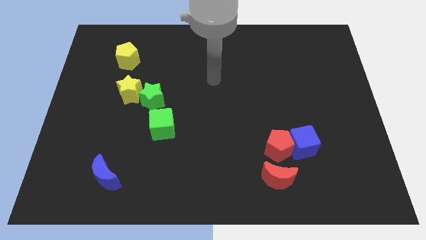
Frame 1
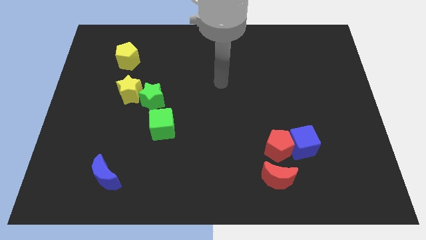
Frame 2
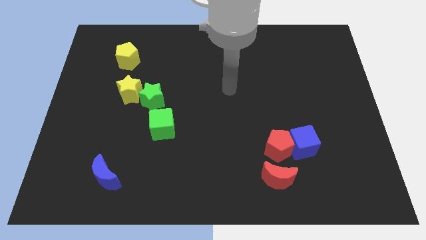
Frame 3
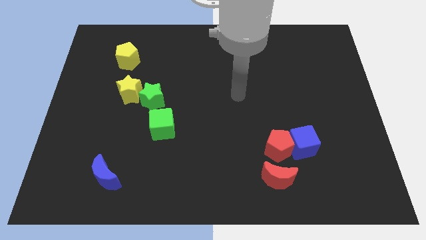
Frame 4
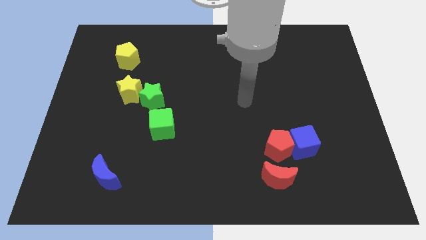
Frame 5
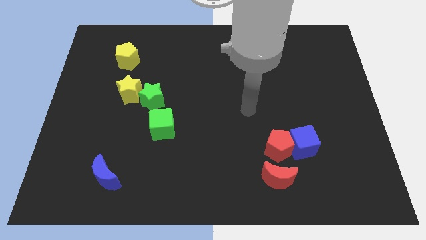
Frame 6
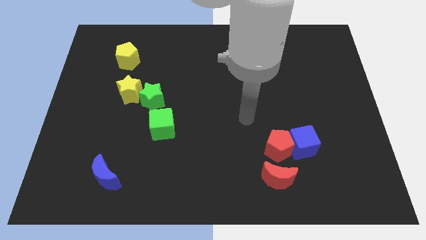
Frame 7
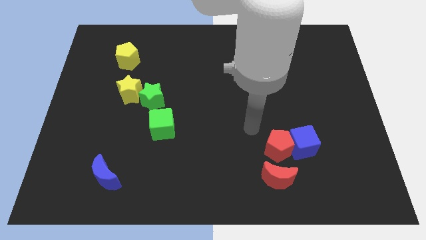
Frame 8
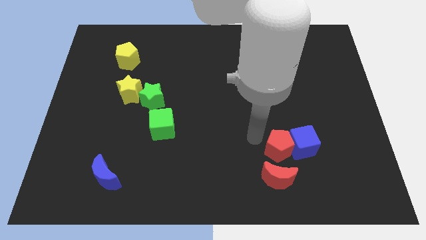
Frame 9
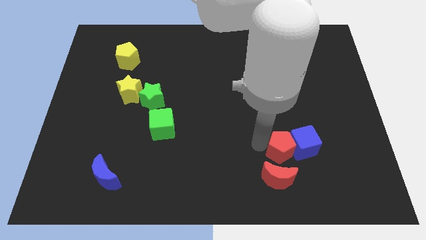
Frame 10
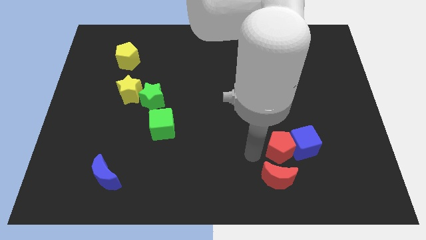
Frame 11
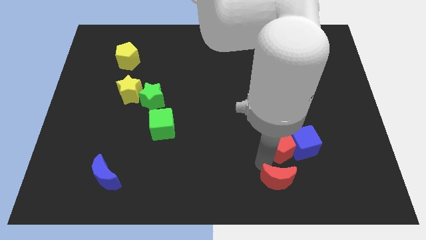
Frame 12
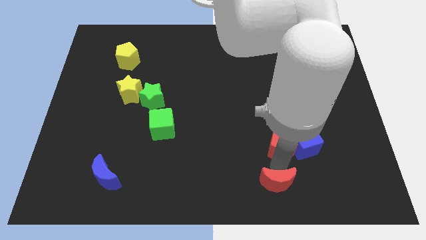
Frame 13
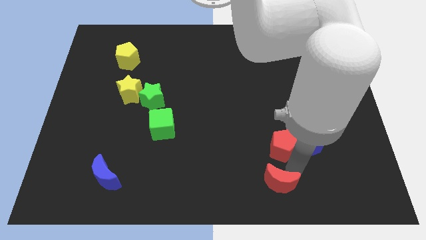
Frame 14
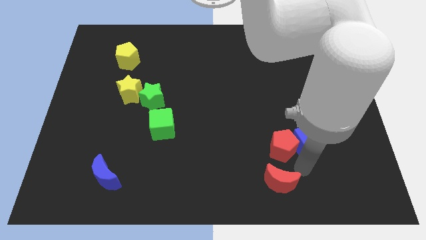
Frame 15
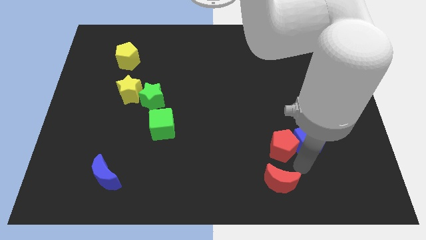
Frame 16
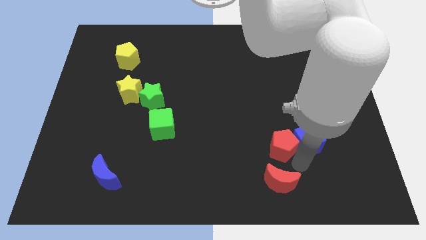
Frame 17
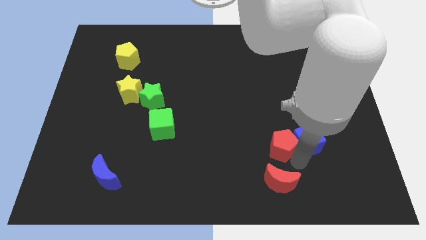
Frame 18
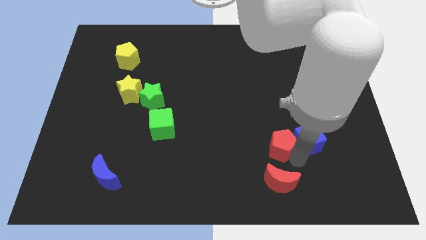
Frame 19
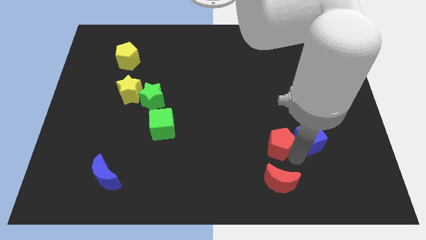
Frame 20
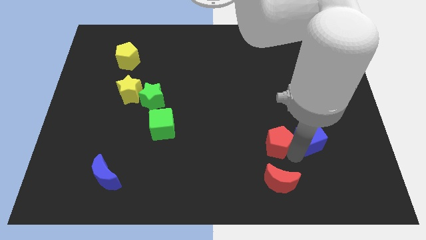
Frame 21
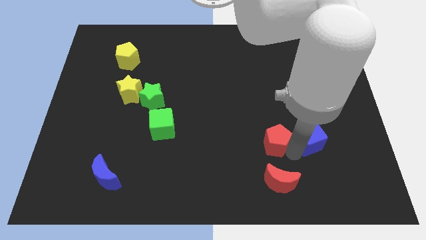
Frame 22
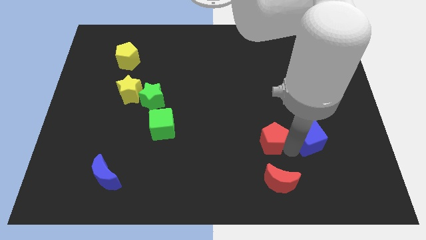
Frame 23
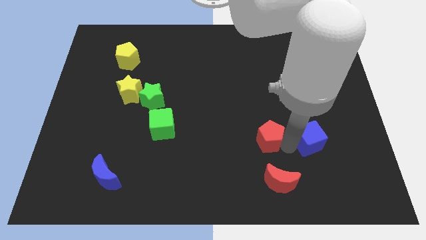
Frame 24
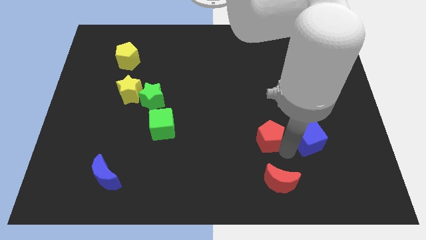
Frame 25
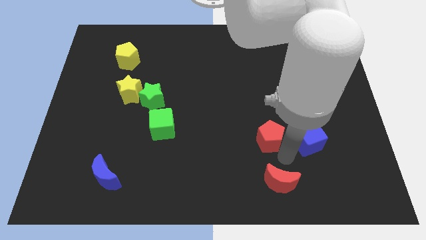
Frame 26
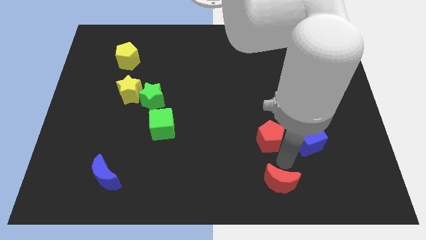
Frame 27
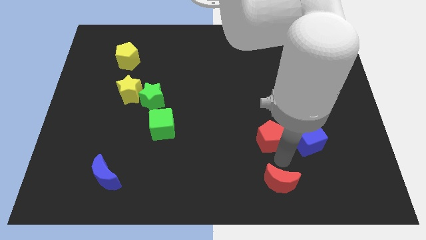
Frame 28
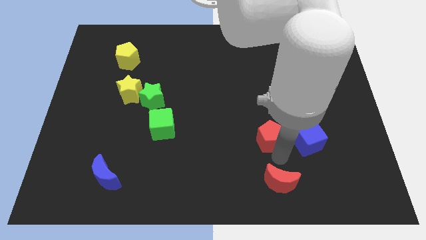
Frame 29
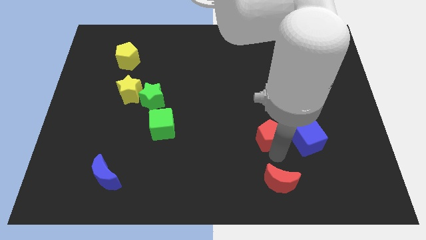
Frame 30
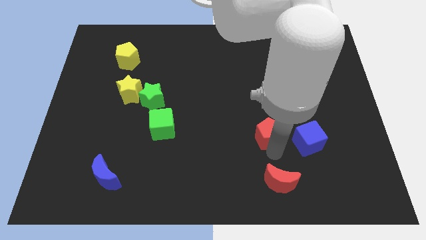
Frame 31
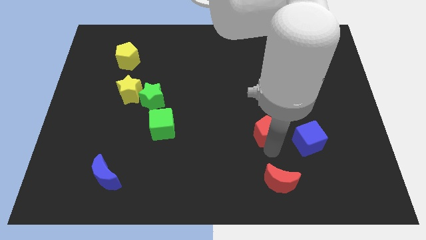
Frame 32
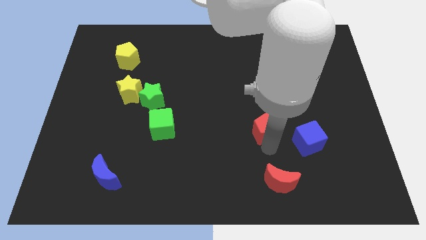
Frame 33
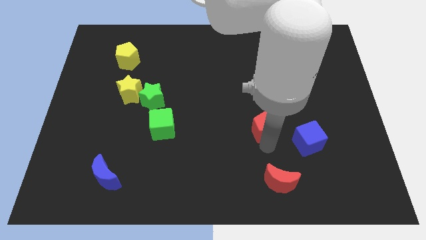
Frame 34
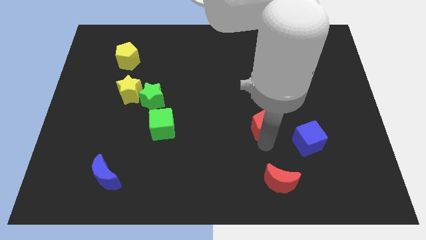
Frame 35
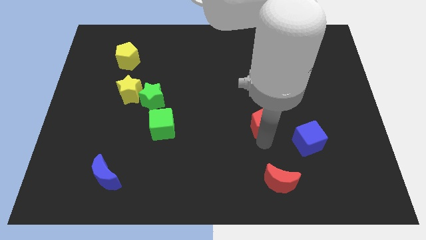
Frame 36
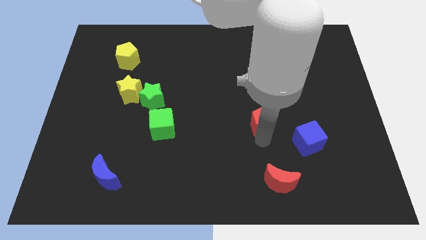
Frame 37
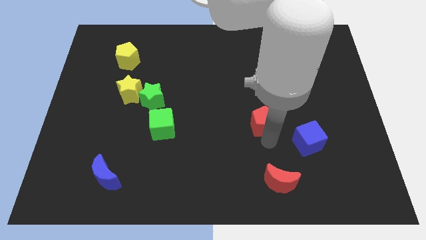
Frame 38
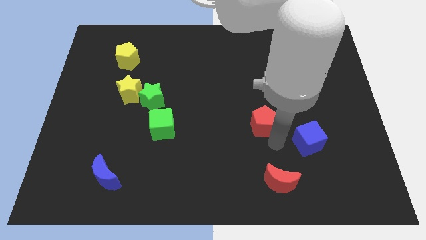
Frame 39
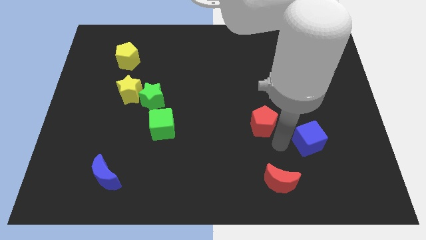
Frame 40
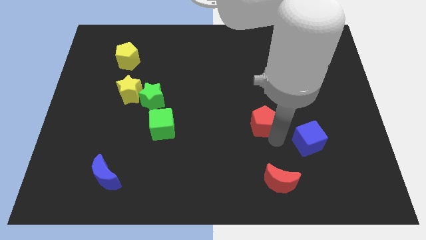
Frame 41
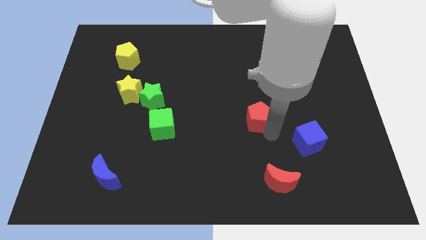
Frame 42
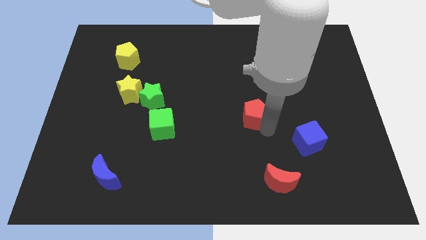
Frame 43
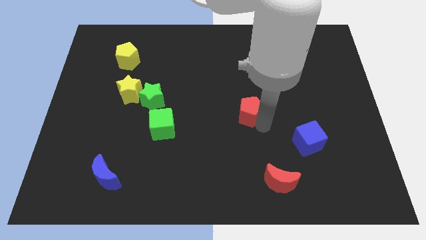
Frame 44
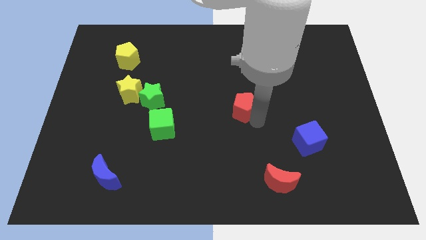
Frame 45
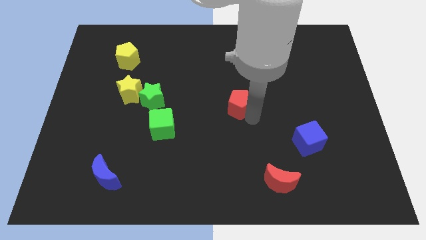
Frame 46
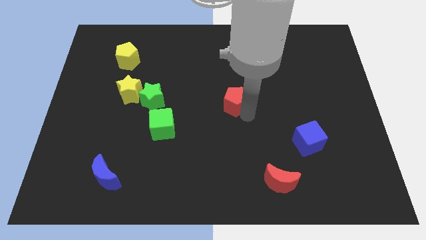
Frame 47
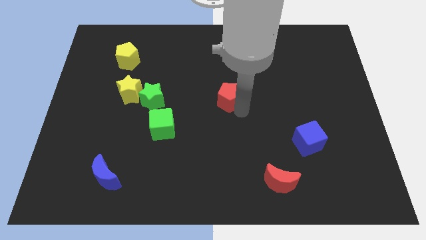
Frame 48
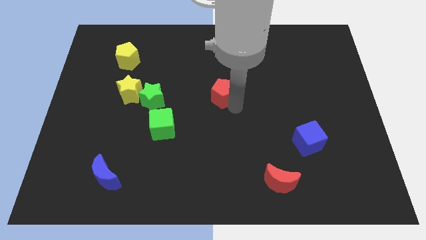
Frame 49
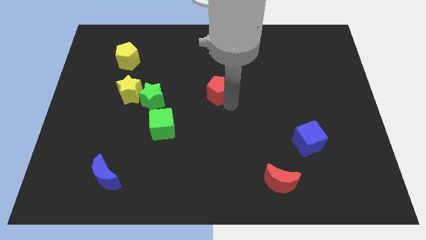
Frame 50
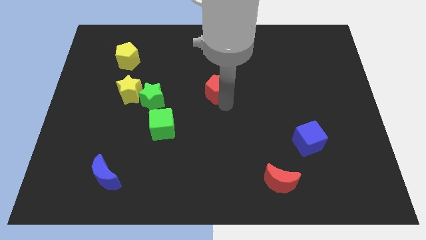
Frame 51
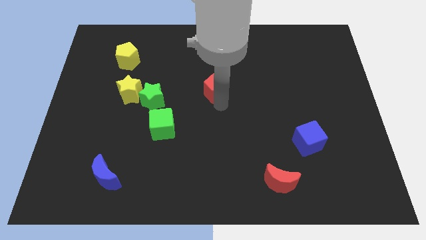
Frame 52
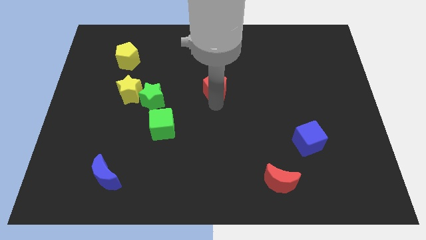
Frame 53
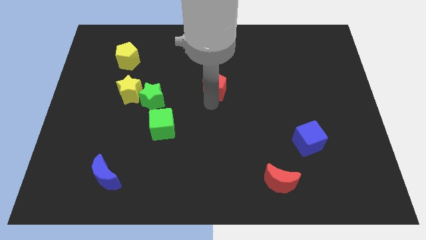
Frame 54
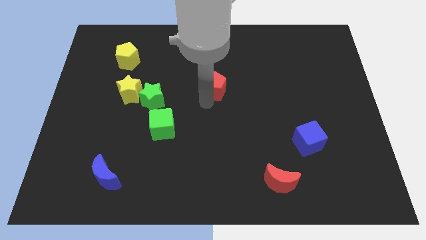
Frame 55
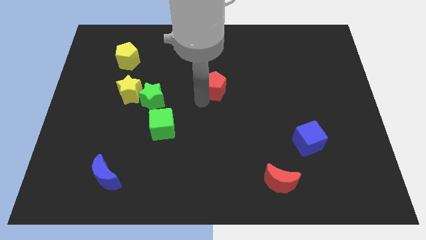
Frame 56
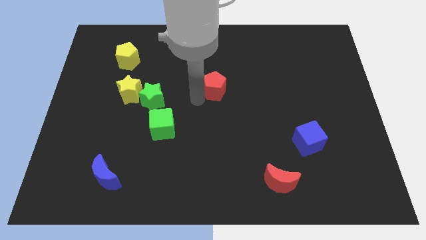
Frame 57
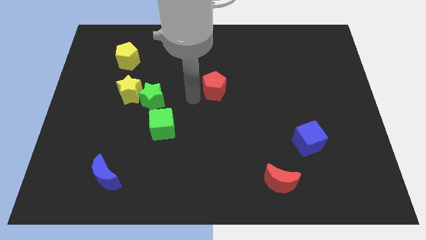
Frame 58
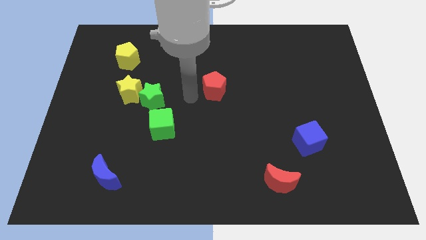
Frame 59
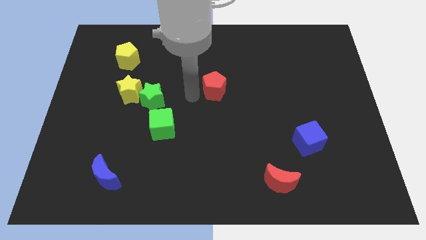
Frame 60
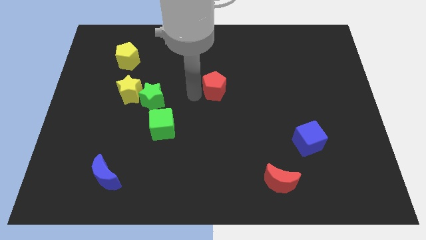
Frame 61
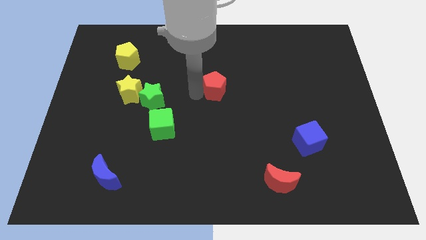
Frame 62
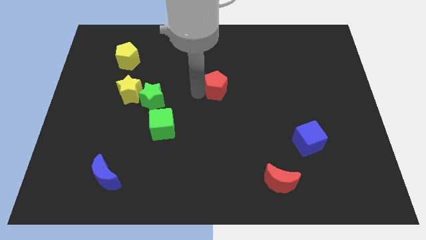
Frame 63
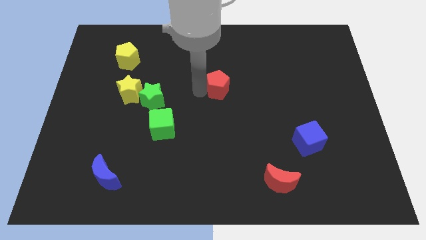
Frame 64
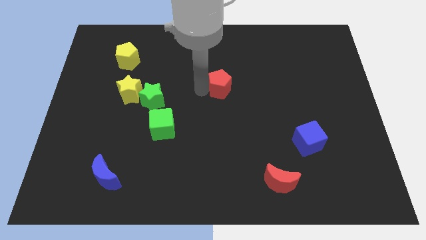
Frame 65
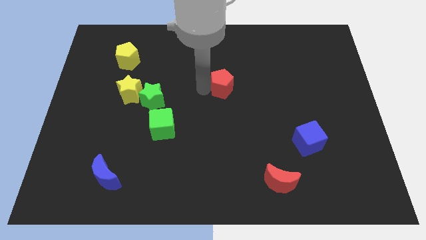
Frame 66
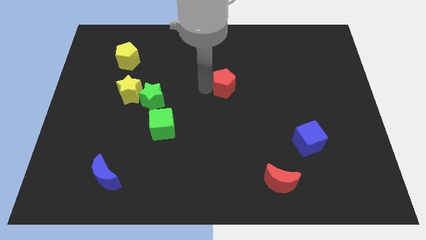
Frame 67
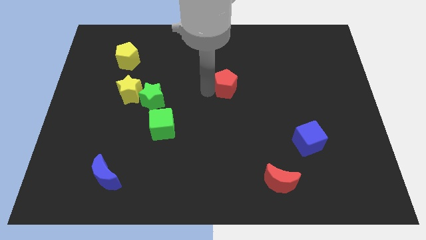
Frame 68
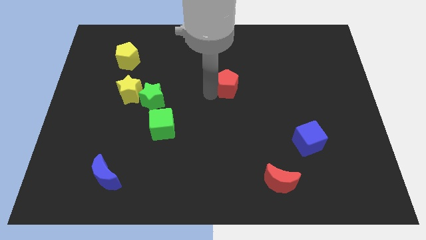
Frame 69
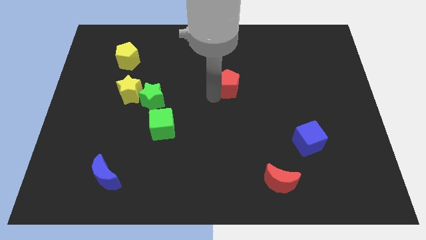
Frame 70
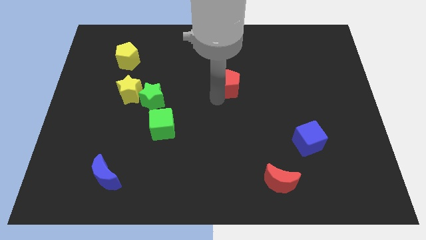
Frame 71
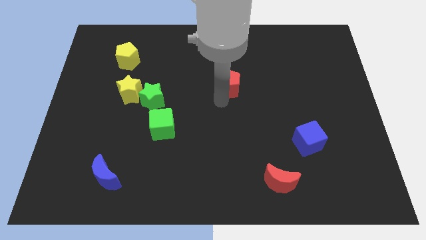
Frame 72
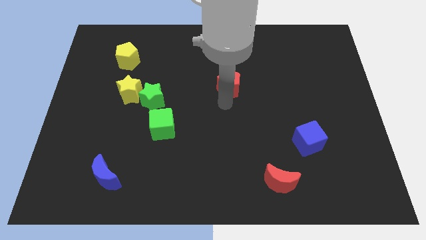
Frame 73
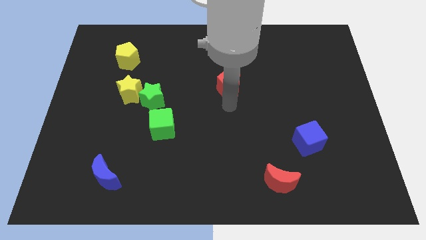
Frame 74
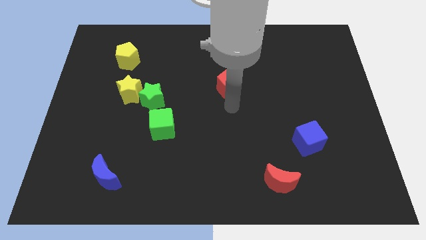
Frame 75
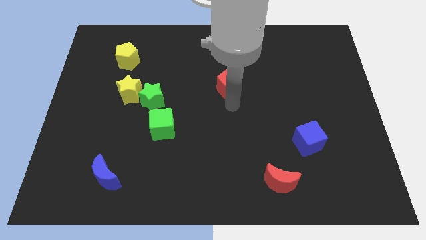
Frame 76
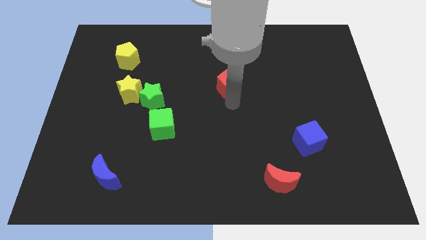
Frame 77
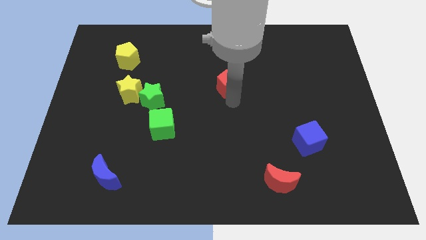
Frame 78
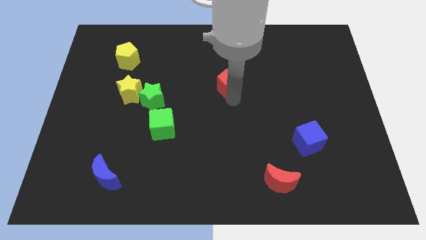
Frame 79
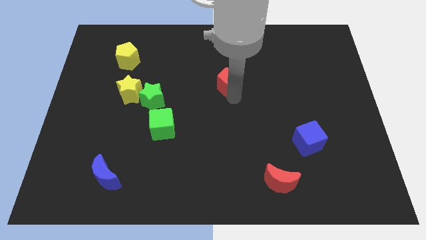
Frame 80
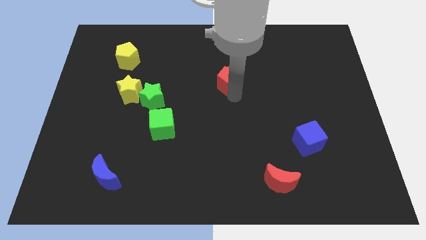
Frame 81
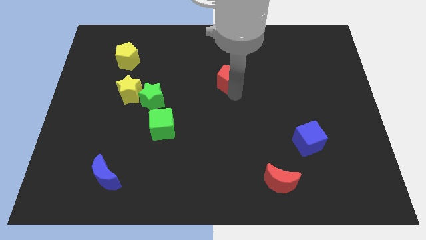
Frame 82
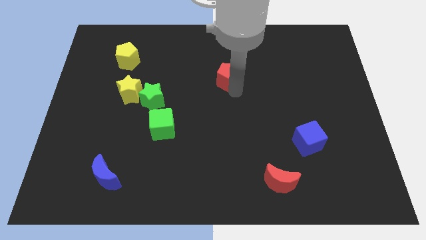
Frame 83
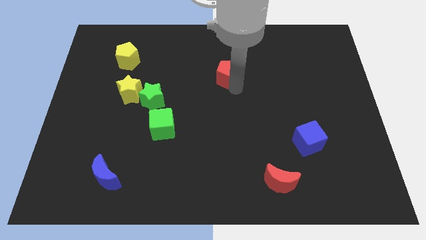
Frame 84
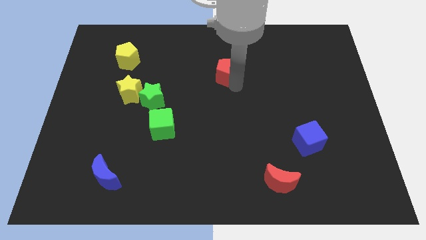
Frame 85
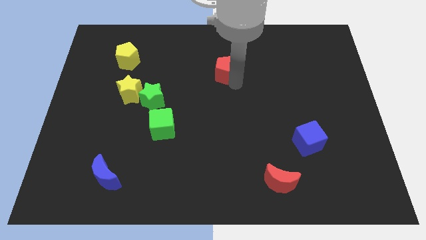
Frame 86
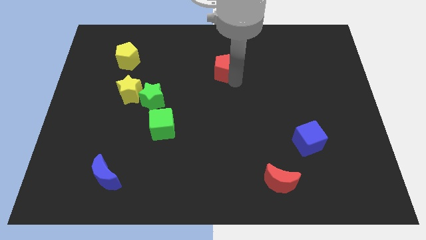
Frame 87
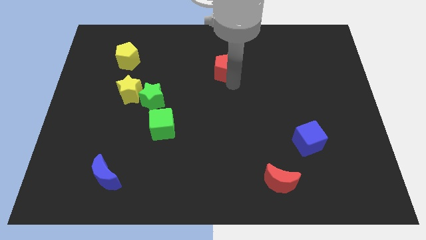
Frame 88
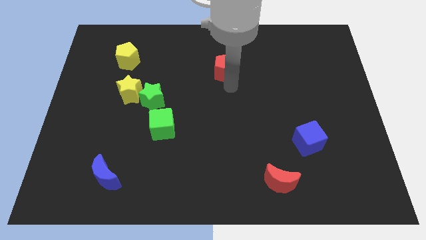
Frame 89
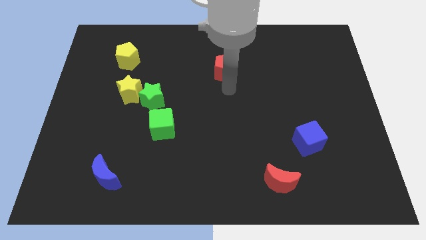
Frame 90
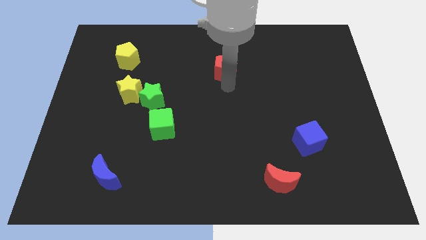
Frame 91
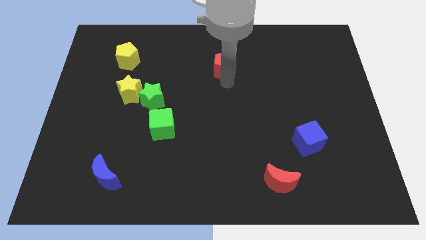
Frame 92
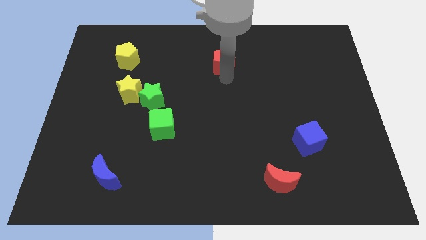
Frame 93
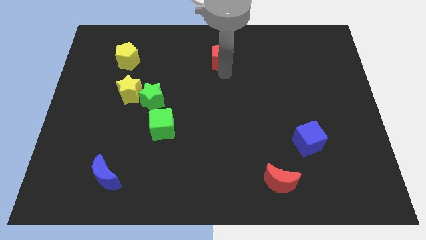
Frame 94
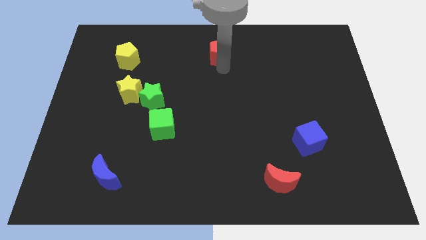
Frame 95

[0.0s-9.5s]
slide the red pentagon to the towards your base
